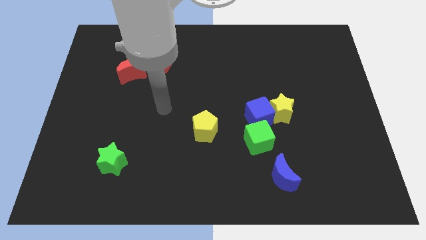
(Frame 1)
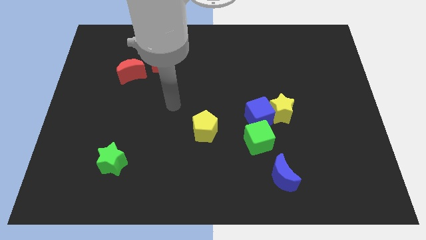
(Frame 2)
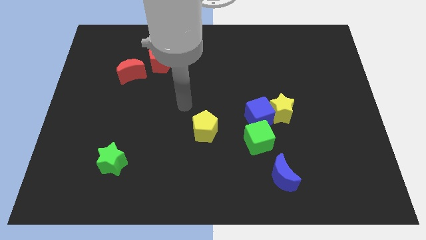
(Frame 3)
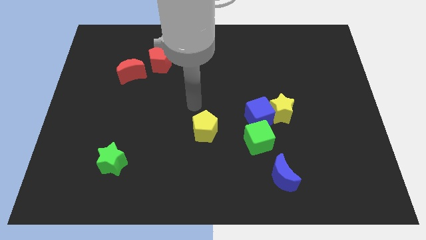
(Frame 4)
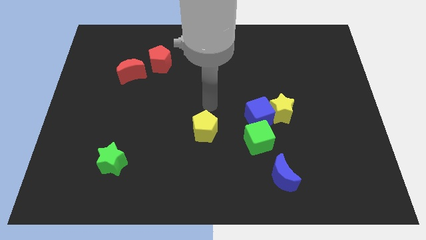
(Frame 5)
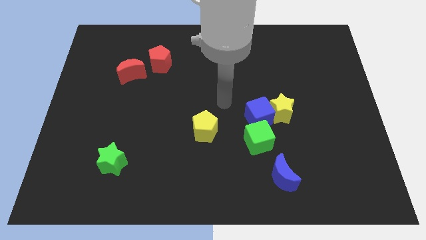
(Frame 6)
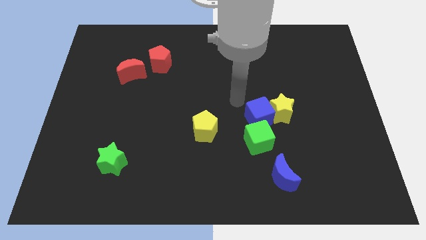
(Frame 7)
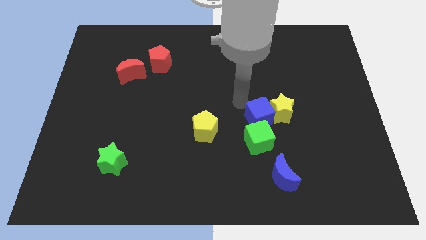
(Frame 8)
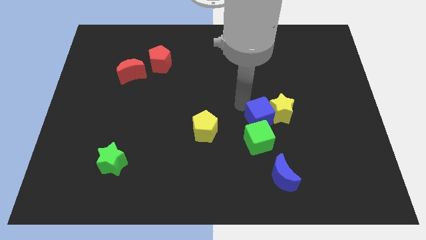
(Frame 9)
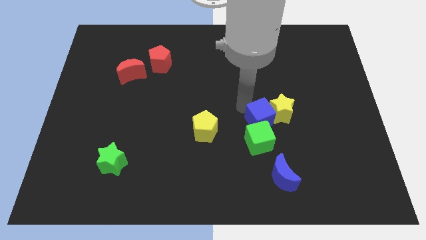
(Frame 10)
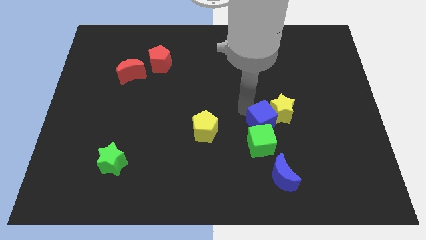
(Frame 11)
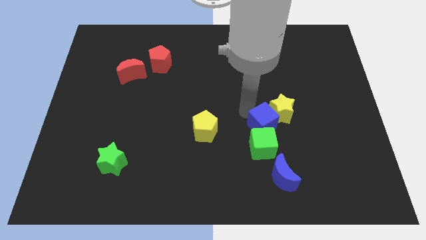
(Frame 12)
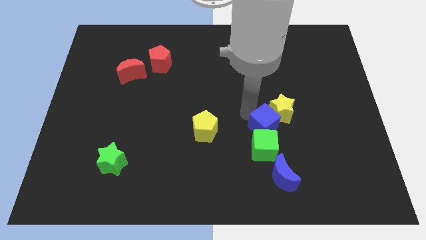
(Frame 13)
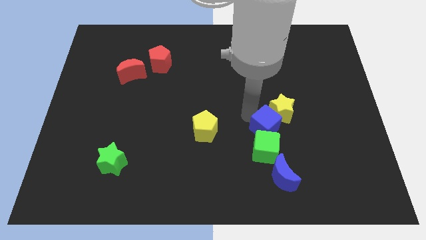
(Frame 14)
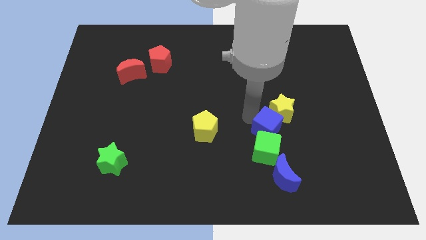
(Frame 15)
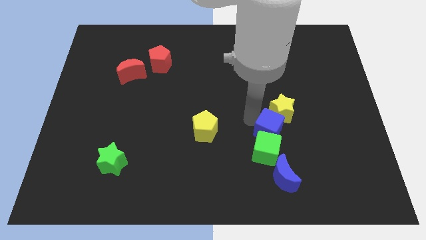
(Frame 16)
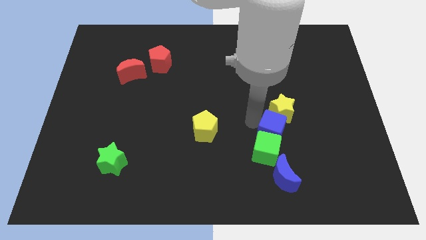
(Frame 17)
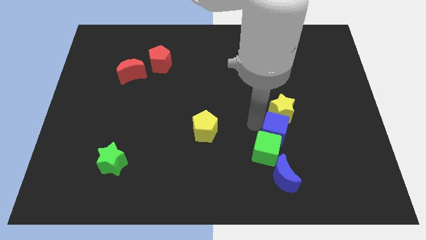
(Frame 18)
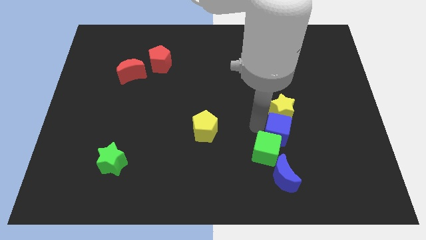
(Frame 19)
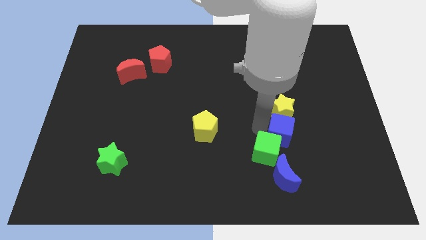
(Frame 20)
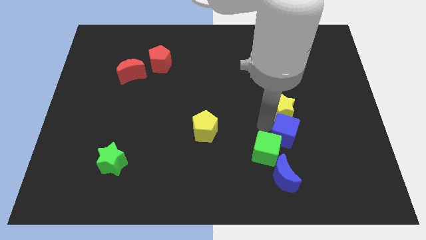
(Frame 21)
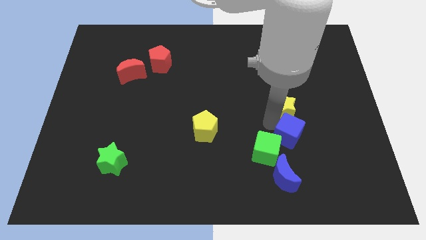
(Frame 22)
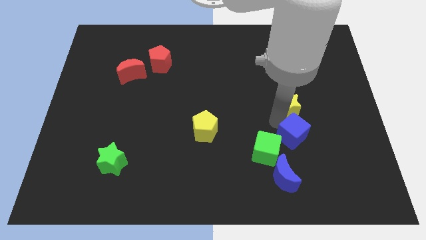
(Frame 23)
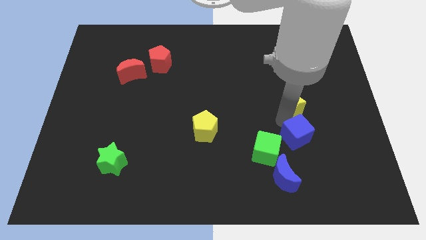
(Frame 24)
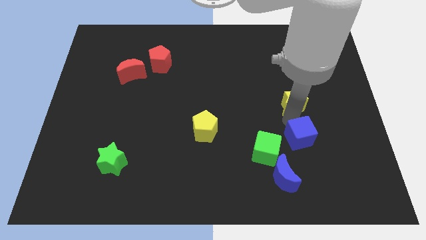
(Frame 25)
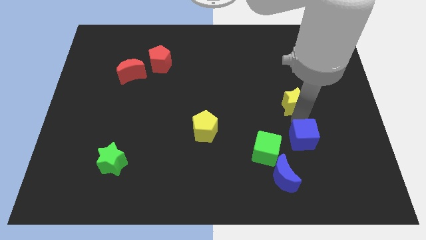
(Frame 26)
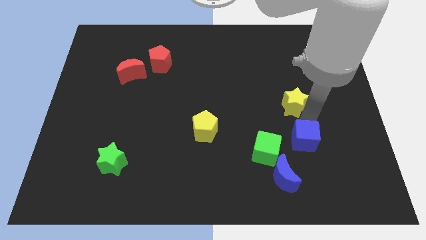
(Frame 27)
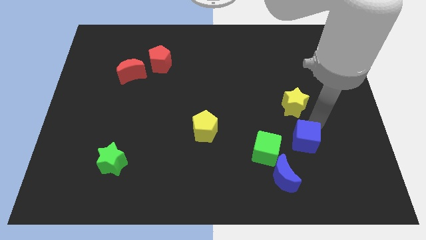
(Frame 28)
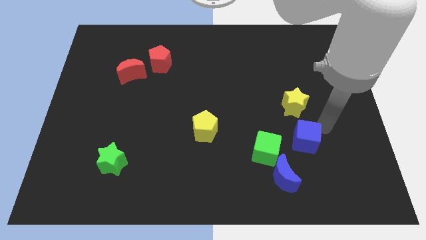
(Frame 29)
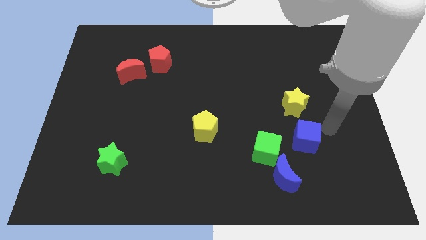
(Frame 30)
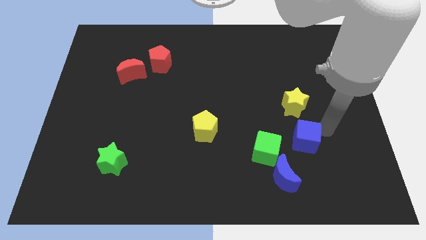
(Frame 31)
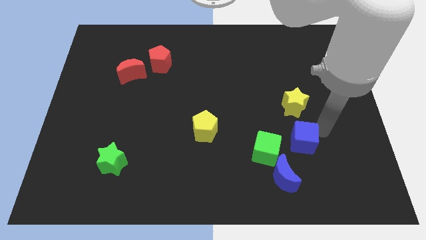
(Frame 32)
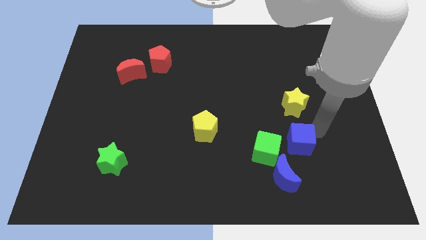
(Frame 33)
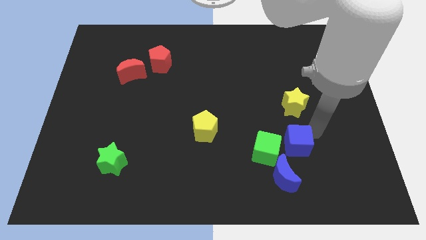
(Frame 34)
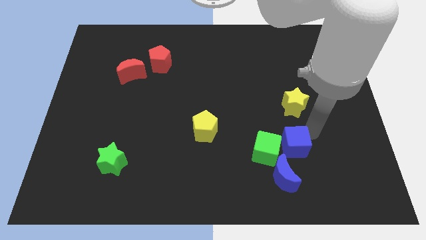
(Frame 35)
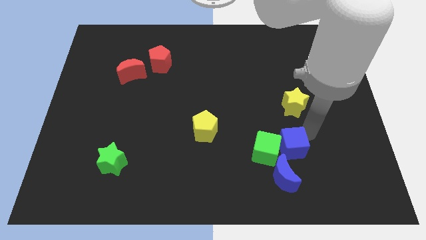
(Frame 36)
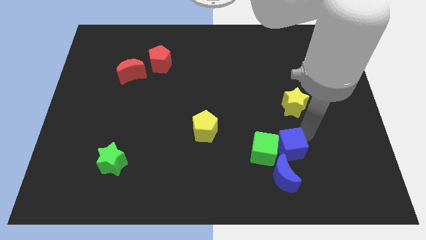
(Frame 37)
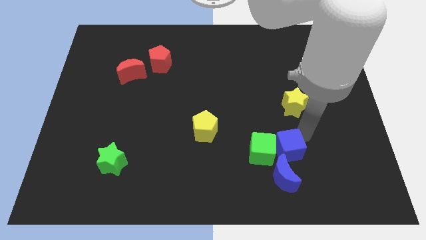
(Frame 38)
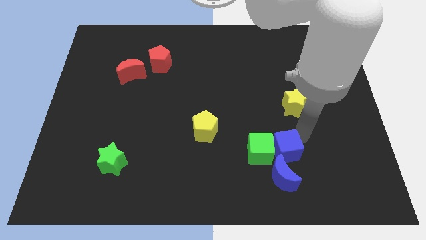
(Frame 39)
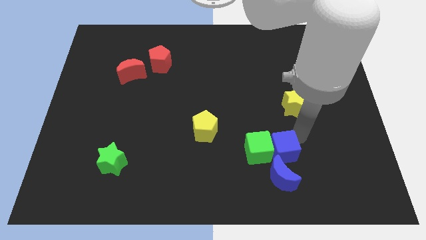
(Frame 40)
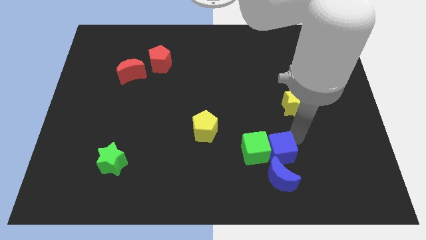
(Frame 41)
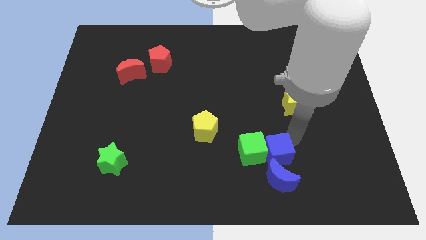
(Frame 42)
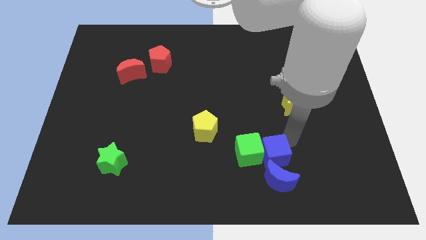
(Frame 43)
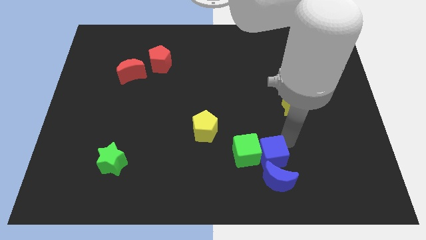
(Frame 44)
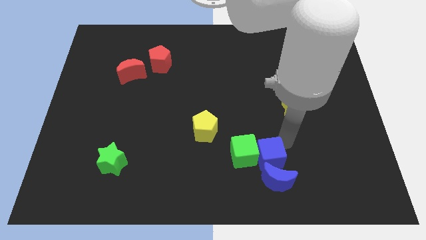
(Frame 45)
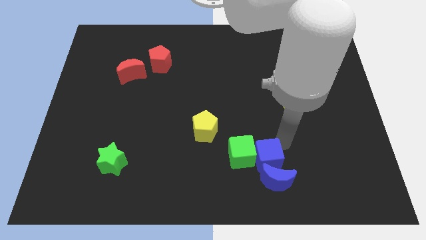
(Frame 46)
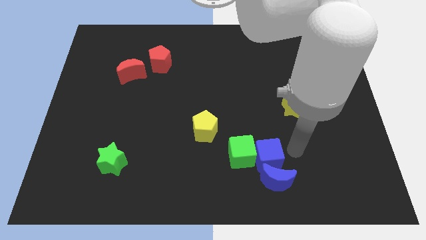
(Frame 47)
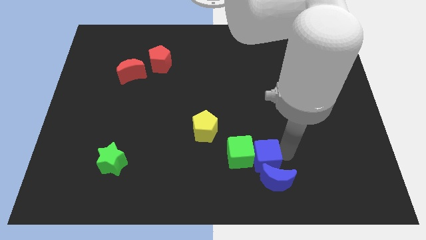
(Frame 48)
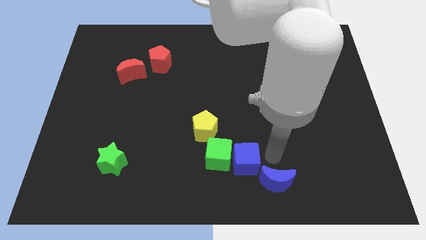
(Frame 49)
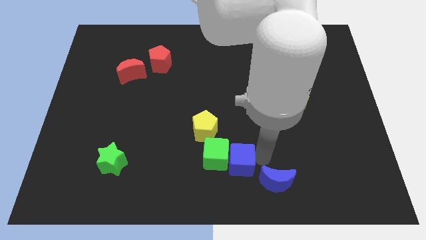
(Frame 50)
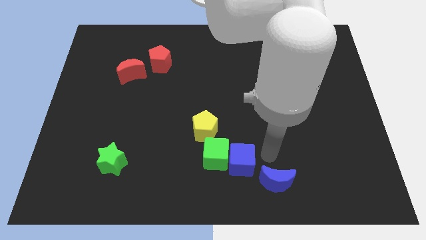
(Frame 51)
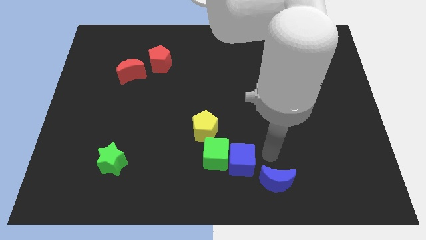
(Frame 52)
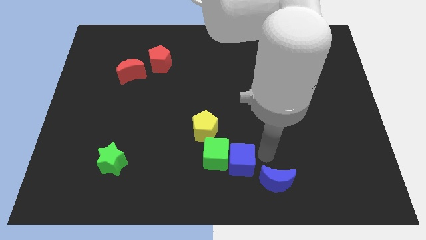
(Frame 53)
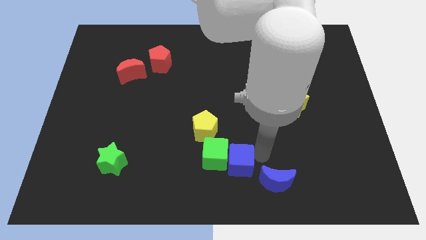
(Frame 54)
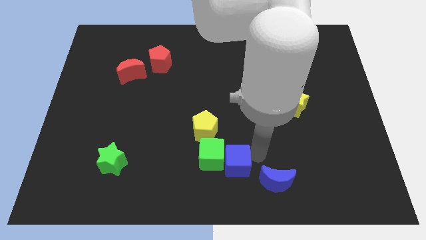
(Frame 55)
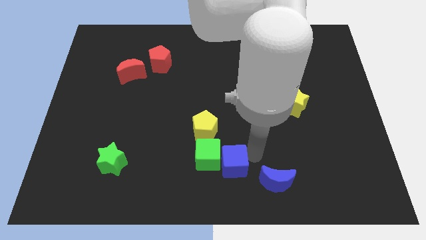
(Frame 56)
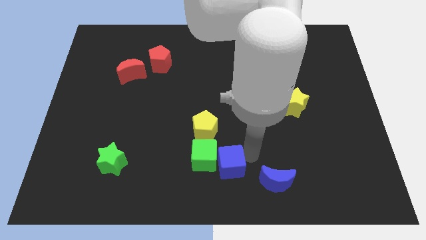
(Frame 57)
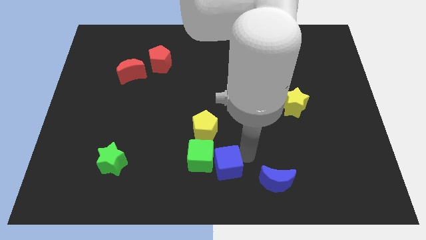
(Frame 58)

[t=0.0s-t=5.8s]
slide the blue cube to the bottom of the yellow pentagon

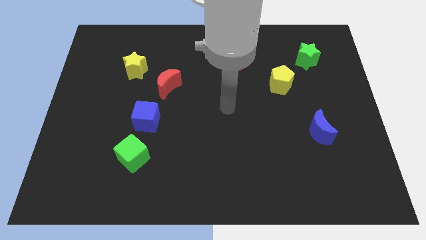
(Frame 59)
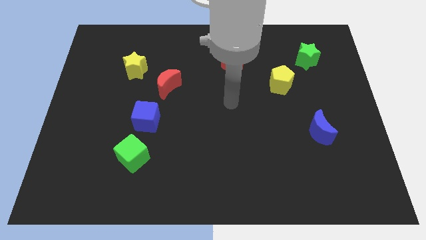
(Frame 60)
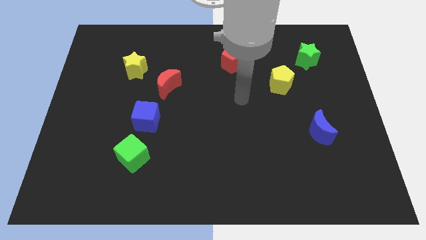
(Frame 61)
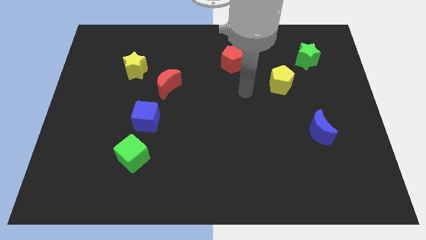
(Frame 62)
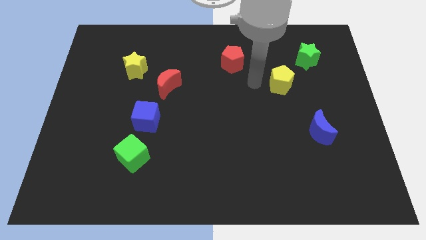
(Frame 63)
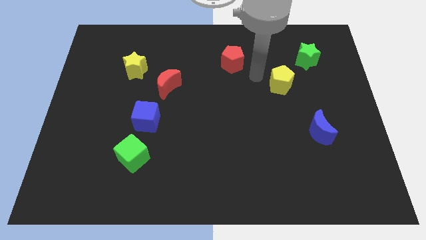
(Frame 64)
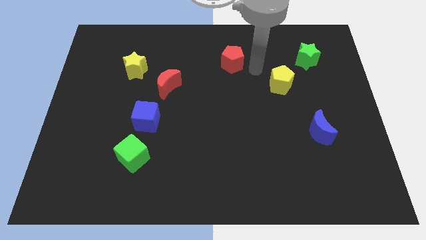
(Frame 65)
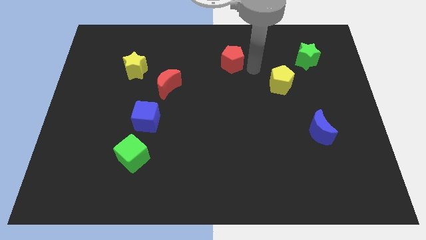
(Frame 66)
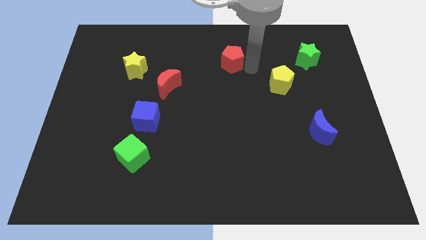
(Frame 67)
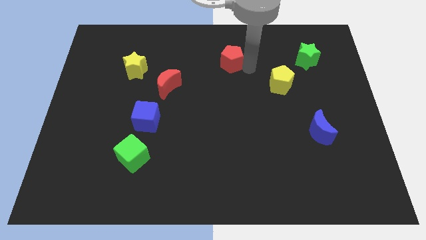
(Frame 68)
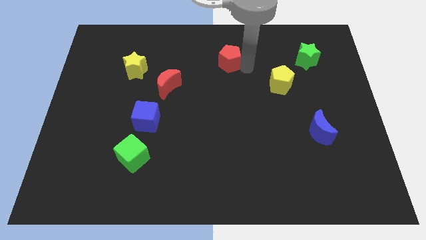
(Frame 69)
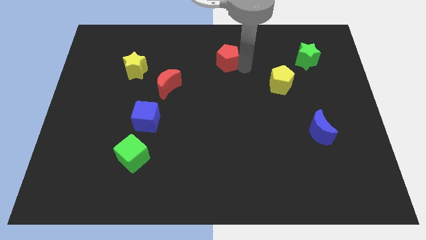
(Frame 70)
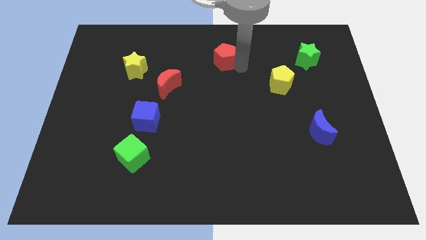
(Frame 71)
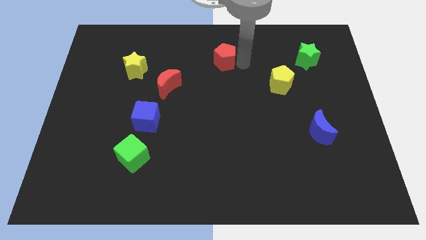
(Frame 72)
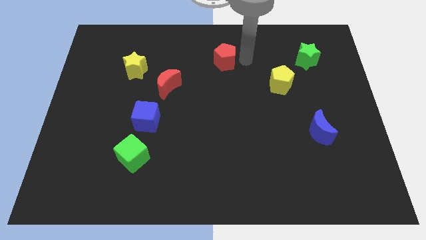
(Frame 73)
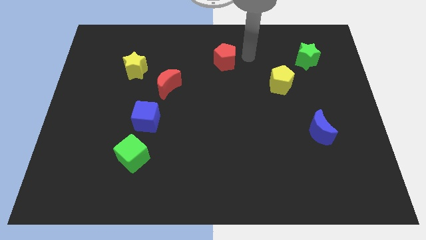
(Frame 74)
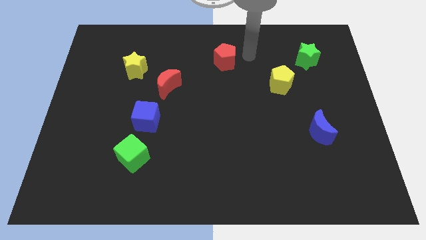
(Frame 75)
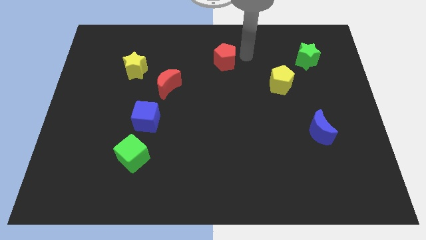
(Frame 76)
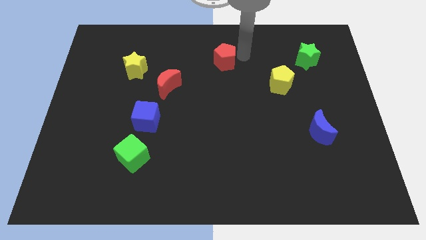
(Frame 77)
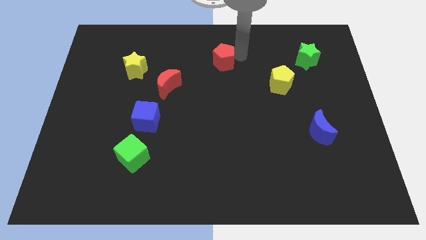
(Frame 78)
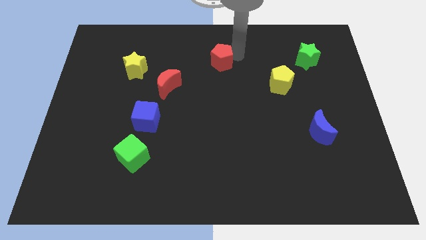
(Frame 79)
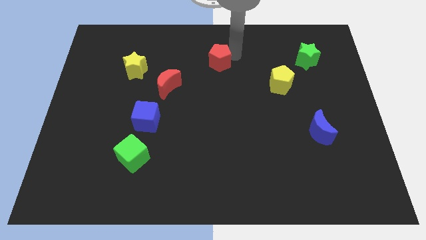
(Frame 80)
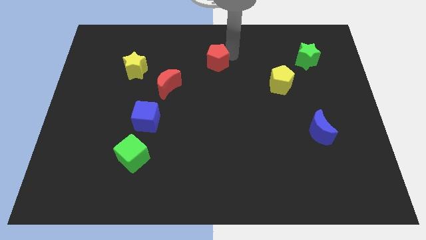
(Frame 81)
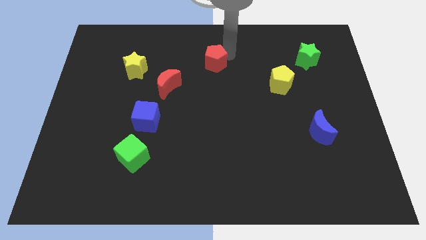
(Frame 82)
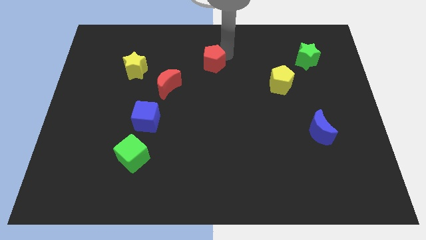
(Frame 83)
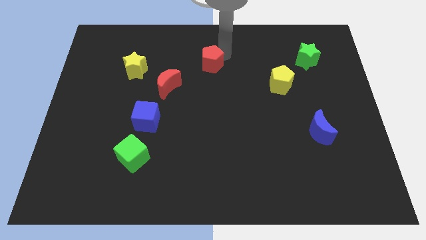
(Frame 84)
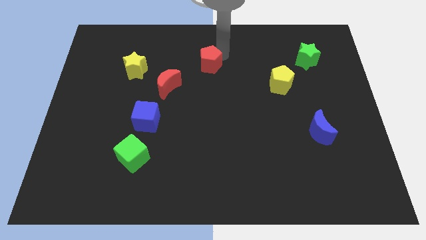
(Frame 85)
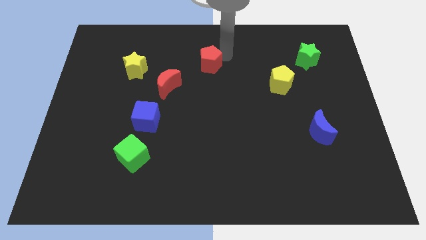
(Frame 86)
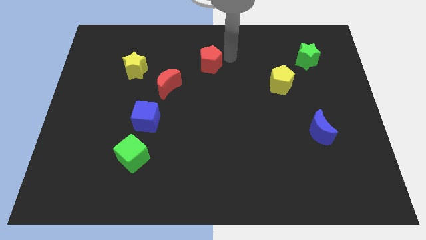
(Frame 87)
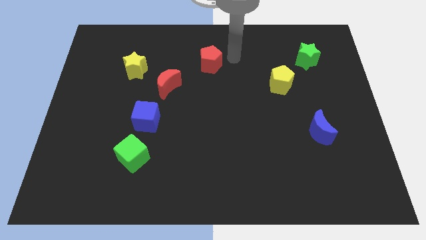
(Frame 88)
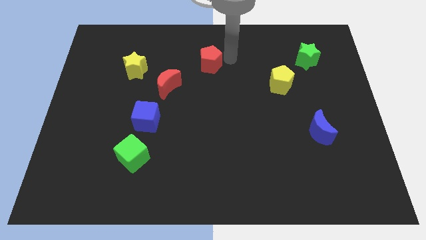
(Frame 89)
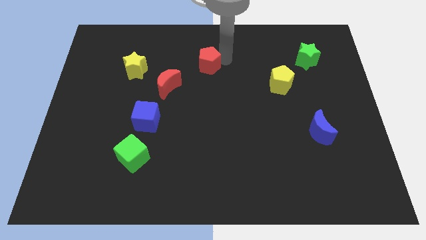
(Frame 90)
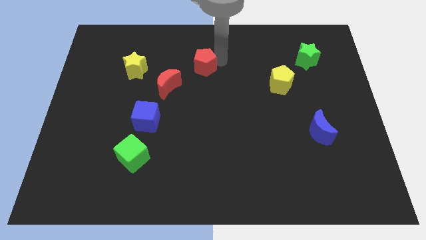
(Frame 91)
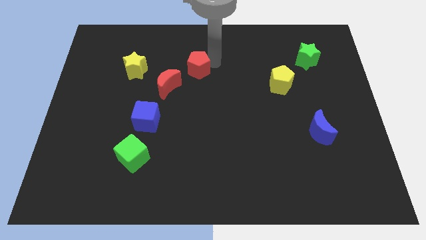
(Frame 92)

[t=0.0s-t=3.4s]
slide the red pentagon right of the yellow star
